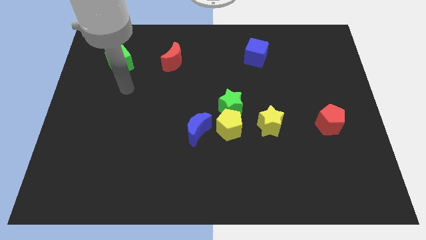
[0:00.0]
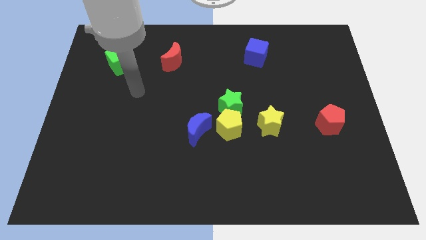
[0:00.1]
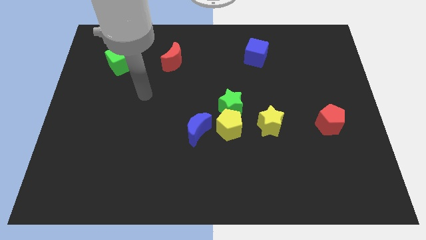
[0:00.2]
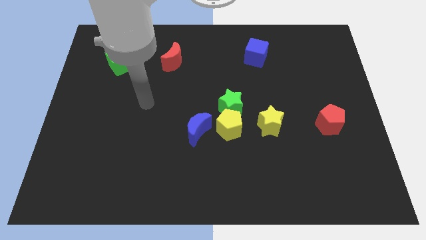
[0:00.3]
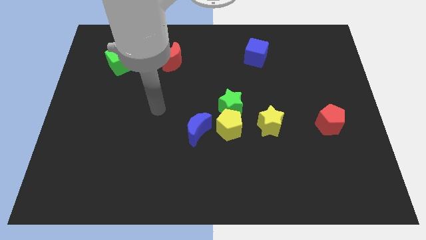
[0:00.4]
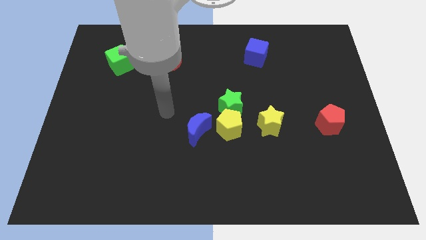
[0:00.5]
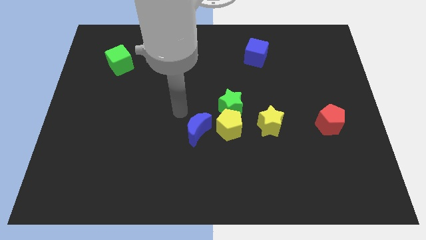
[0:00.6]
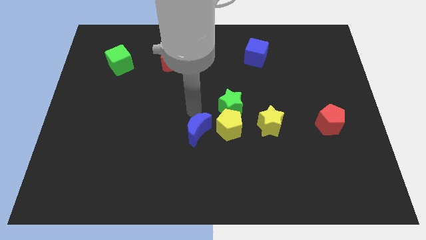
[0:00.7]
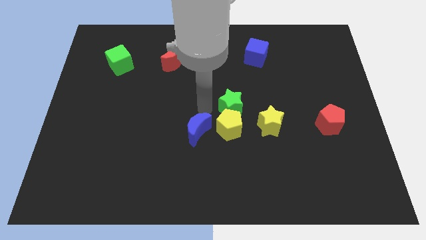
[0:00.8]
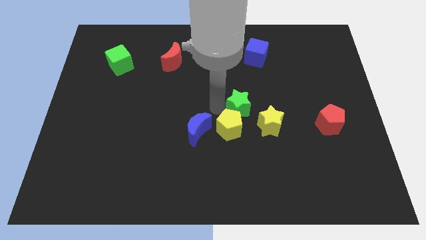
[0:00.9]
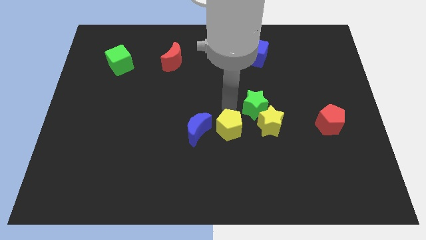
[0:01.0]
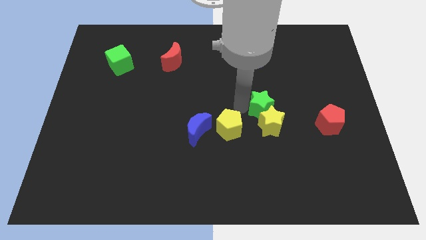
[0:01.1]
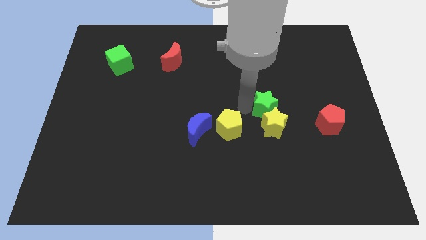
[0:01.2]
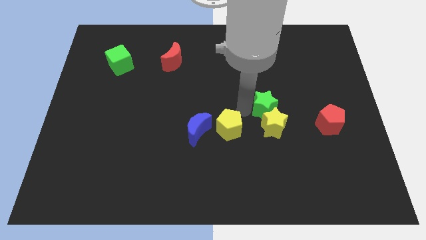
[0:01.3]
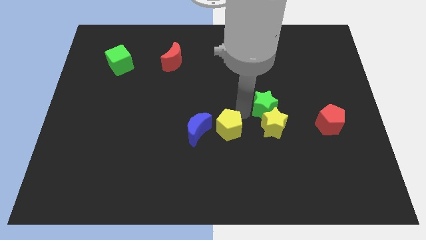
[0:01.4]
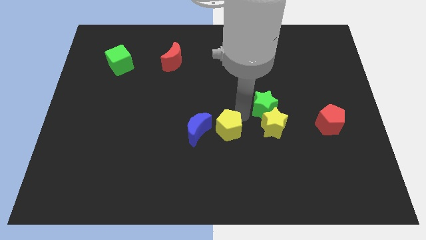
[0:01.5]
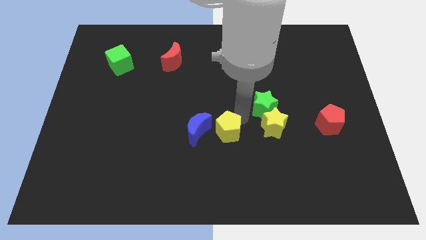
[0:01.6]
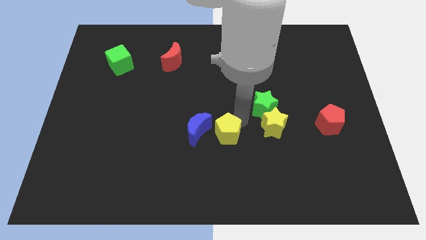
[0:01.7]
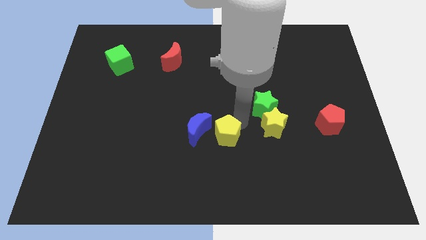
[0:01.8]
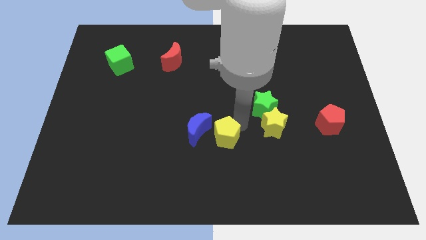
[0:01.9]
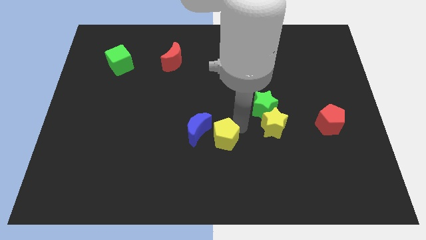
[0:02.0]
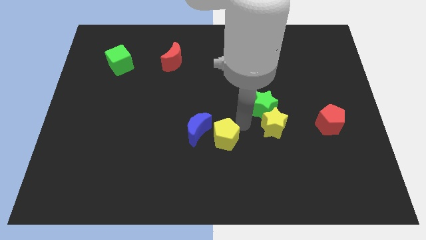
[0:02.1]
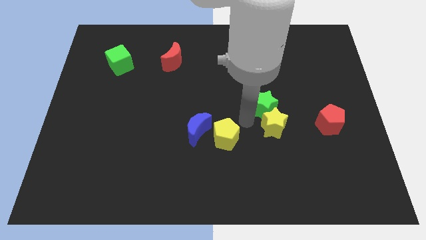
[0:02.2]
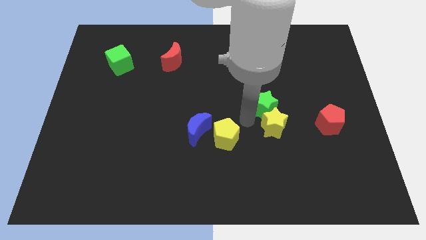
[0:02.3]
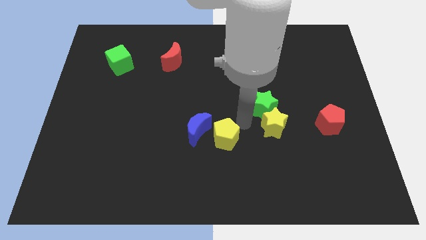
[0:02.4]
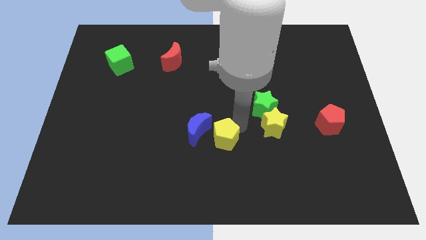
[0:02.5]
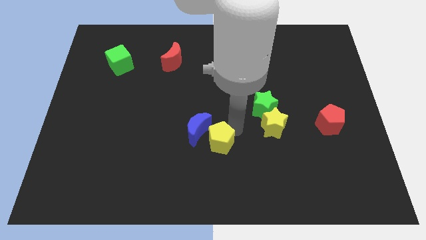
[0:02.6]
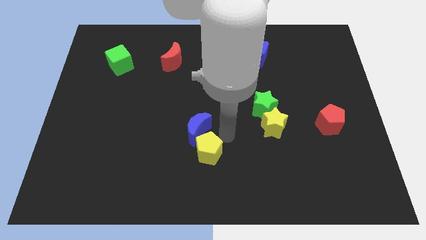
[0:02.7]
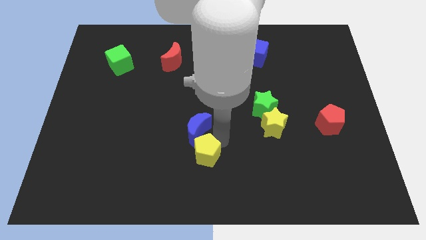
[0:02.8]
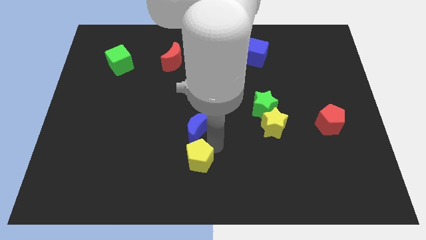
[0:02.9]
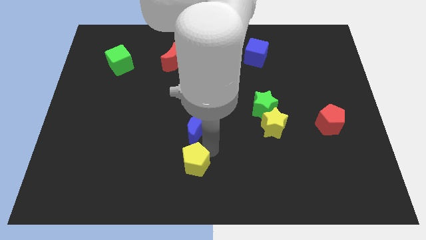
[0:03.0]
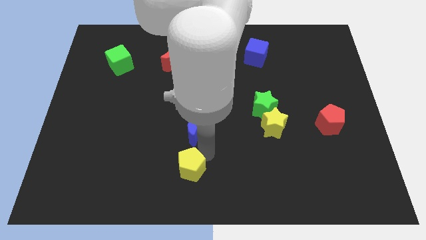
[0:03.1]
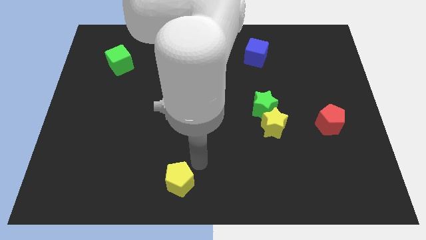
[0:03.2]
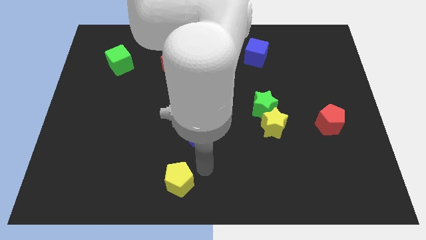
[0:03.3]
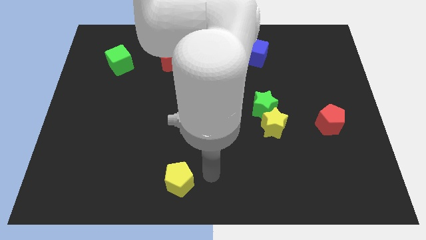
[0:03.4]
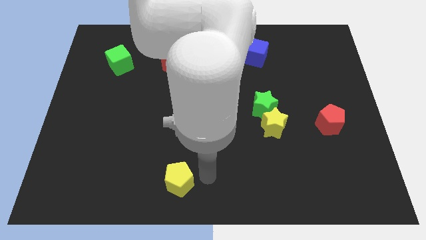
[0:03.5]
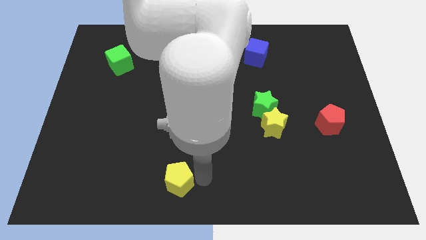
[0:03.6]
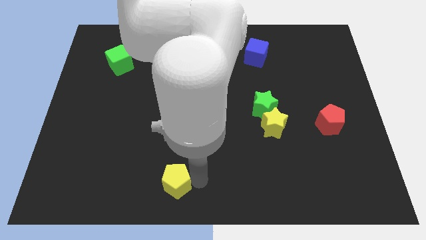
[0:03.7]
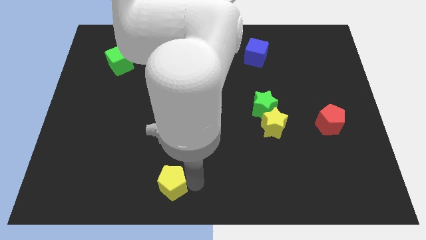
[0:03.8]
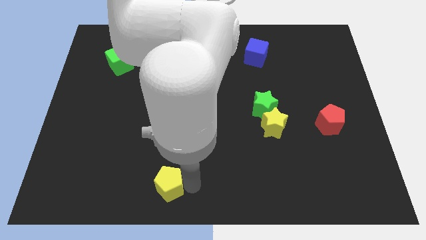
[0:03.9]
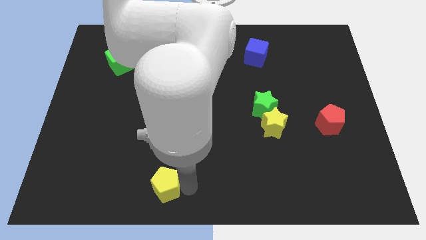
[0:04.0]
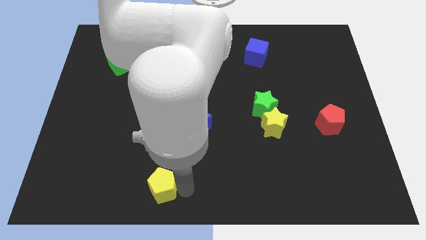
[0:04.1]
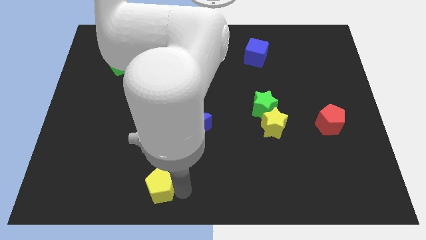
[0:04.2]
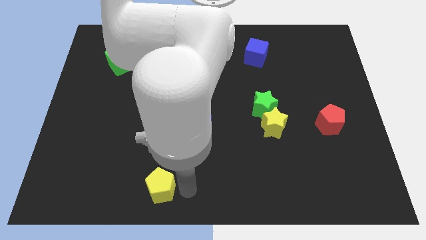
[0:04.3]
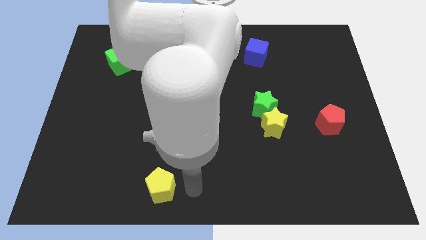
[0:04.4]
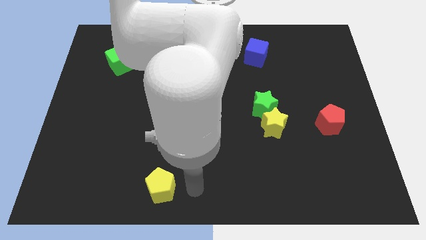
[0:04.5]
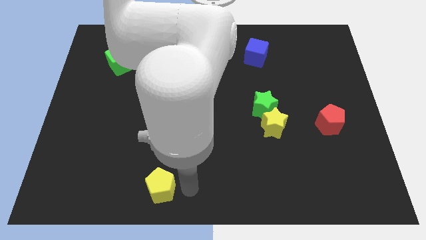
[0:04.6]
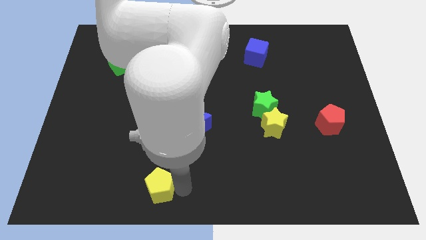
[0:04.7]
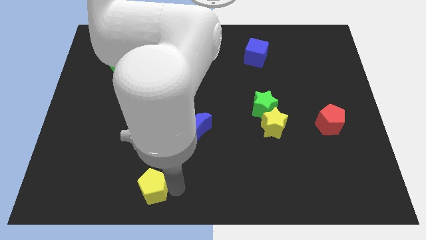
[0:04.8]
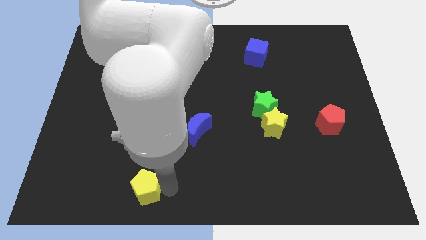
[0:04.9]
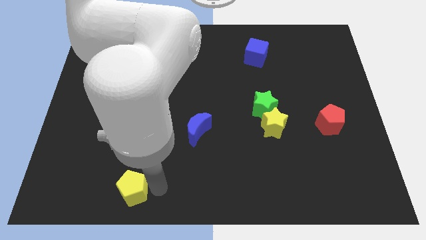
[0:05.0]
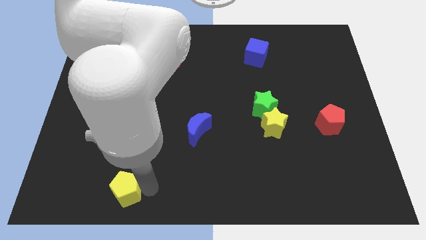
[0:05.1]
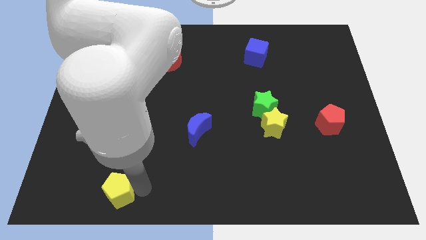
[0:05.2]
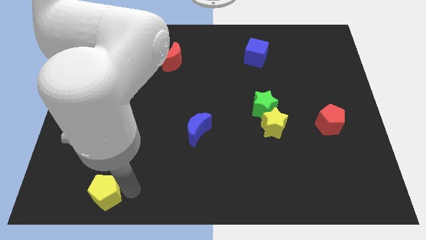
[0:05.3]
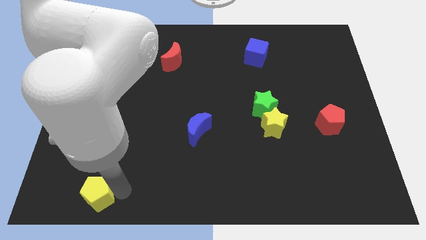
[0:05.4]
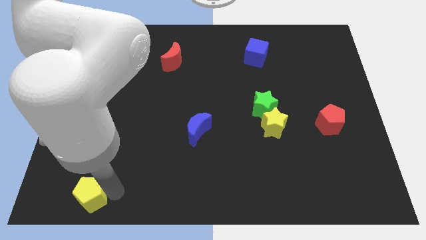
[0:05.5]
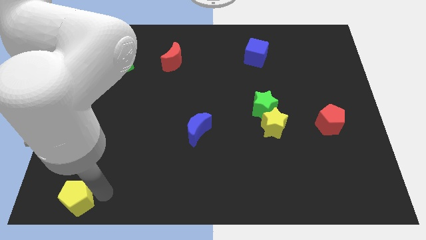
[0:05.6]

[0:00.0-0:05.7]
put the yellow pentagon to the bottom left of the board

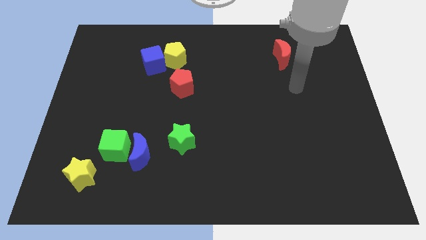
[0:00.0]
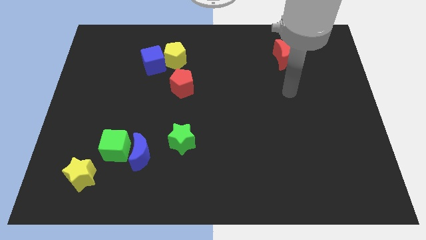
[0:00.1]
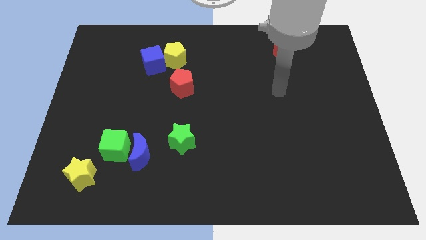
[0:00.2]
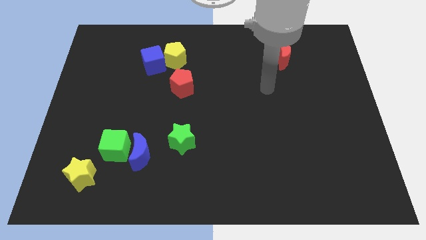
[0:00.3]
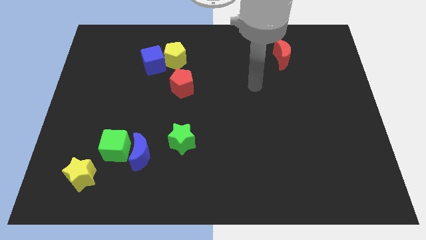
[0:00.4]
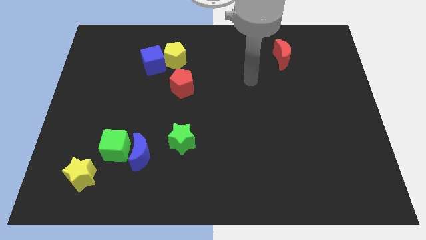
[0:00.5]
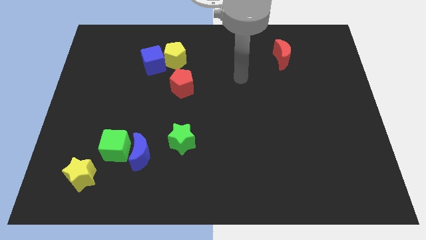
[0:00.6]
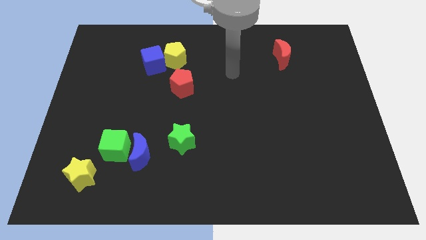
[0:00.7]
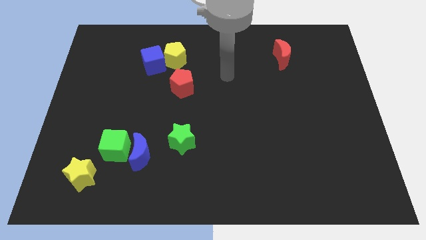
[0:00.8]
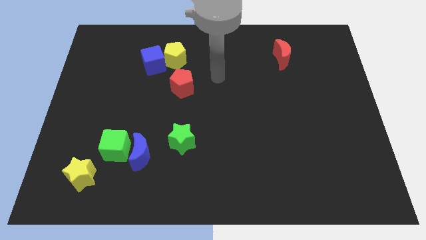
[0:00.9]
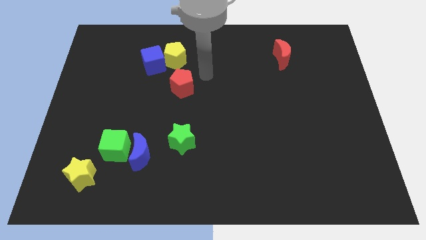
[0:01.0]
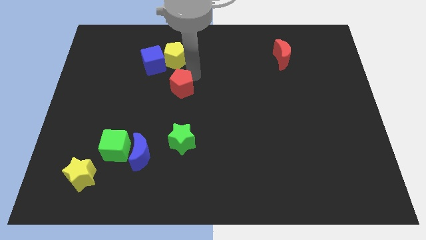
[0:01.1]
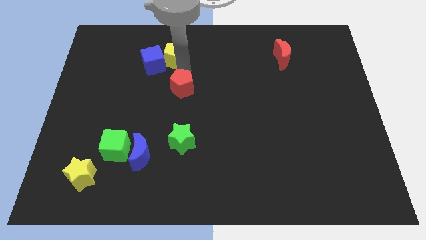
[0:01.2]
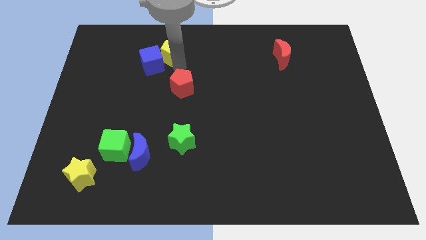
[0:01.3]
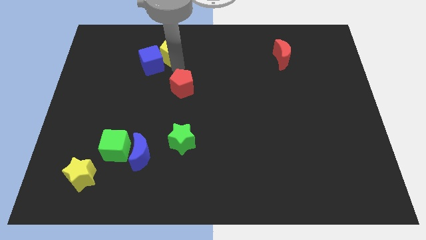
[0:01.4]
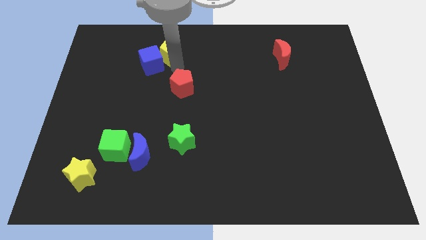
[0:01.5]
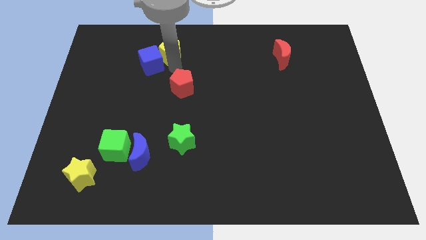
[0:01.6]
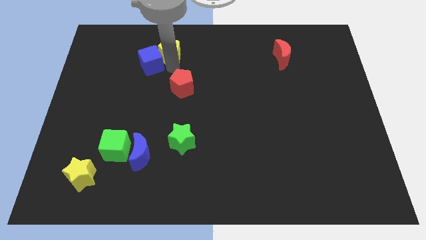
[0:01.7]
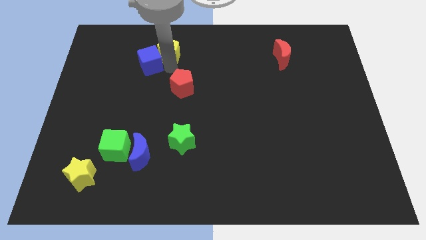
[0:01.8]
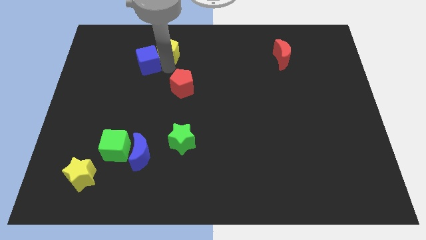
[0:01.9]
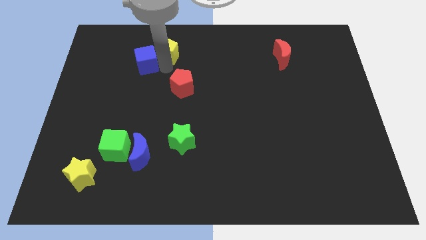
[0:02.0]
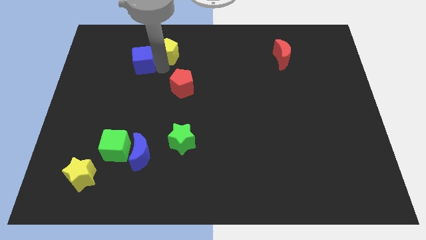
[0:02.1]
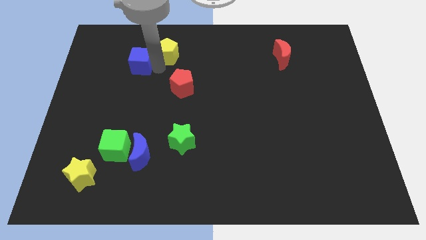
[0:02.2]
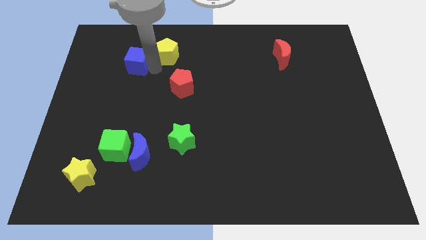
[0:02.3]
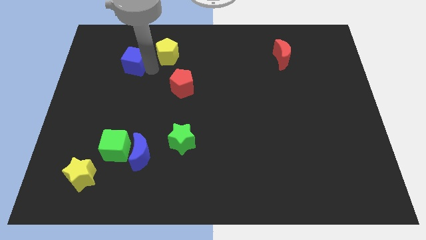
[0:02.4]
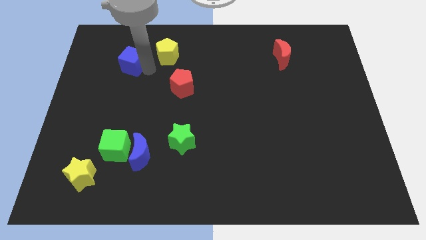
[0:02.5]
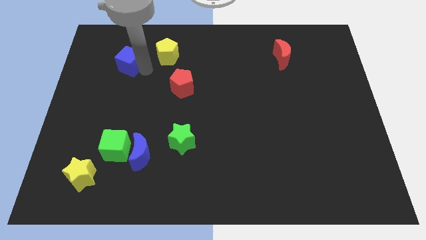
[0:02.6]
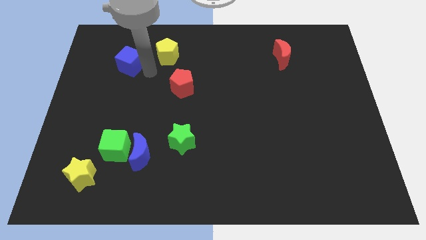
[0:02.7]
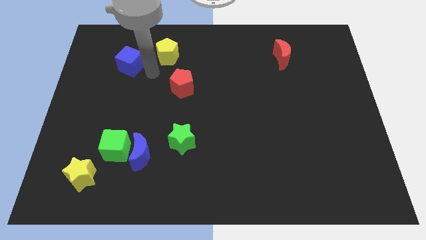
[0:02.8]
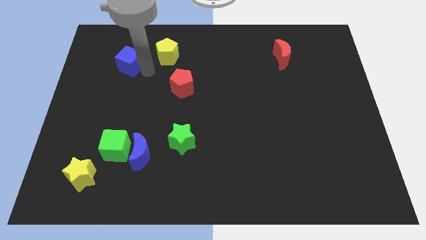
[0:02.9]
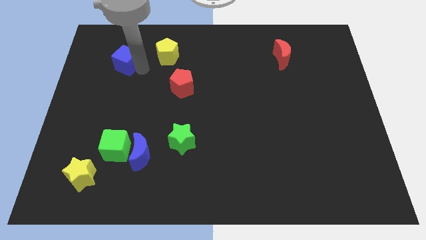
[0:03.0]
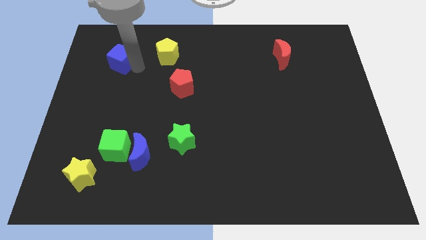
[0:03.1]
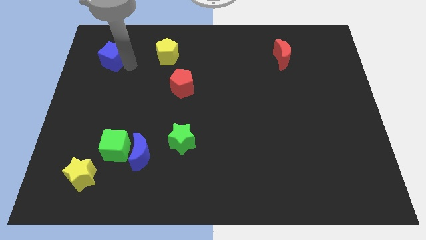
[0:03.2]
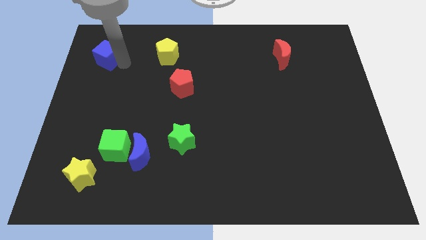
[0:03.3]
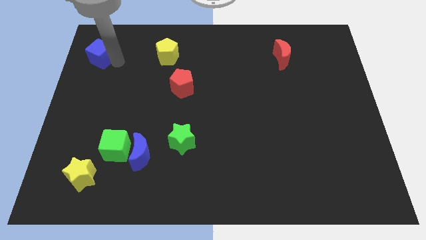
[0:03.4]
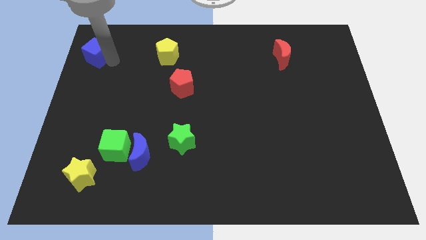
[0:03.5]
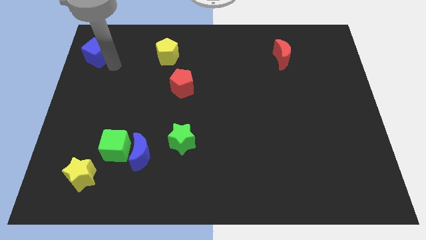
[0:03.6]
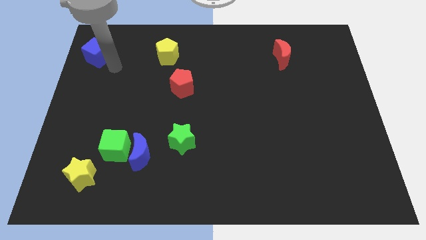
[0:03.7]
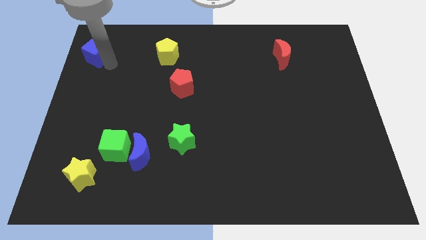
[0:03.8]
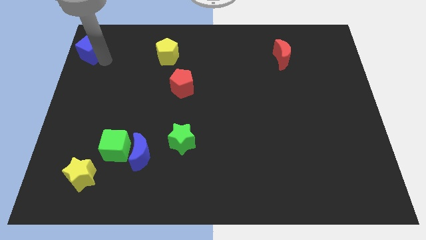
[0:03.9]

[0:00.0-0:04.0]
put the blue cube to the upper left corner
